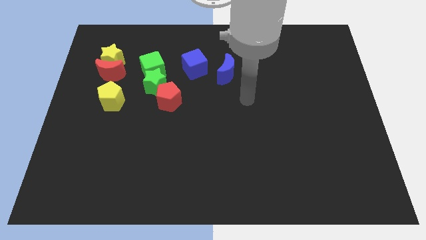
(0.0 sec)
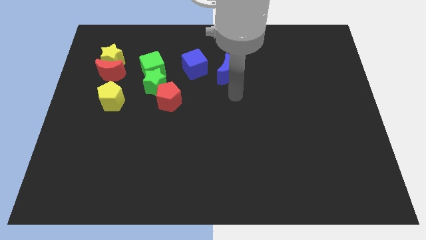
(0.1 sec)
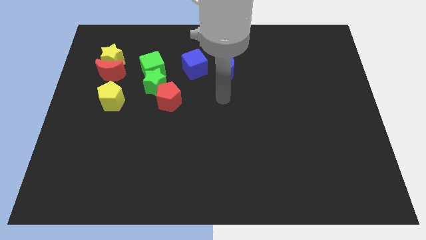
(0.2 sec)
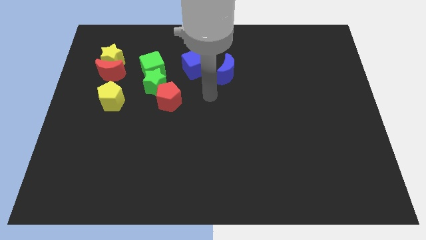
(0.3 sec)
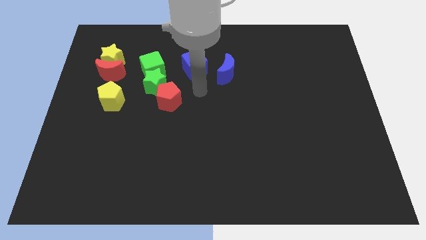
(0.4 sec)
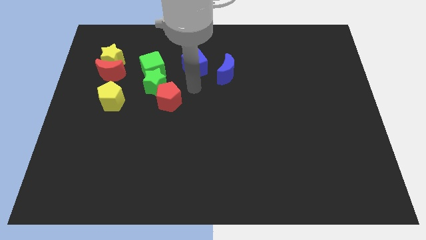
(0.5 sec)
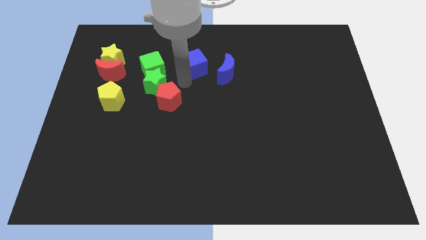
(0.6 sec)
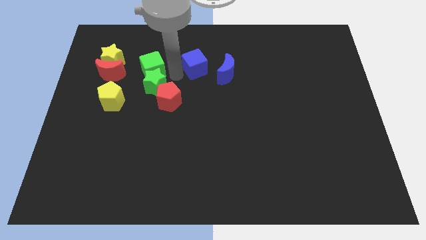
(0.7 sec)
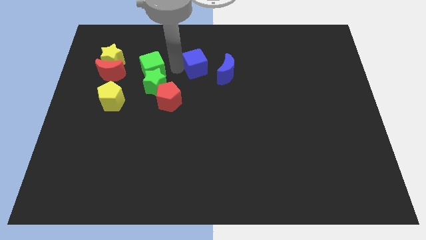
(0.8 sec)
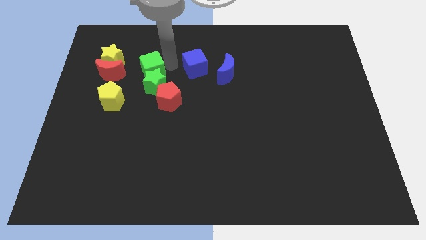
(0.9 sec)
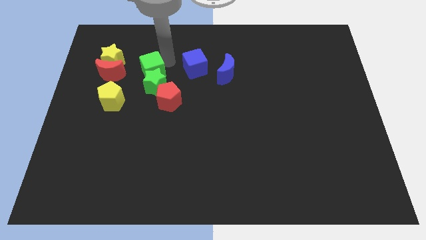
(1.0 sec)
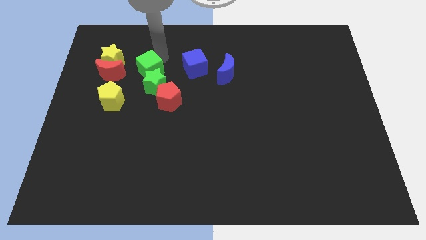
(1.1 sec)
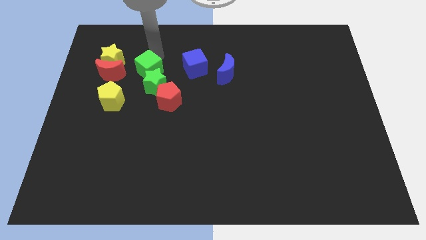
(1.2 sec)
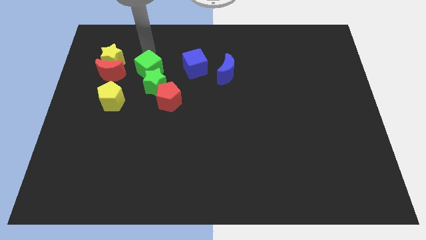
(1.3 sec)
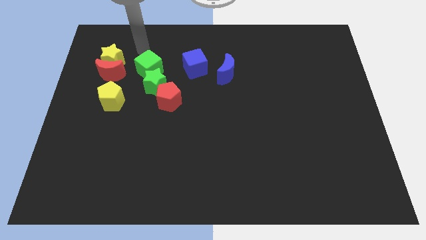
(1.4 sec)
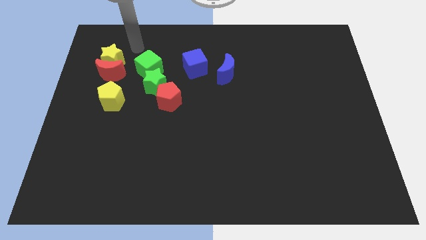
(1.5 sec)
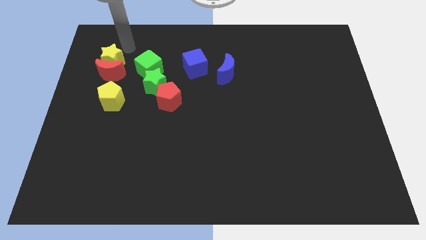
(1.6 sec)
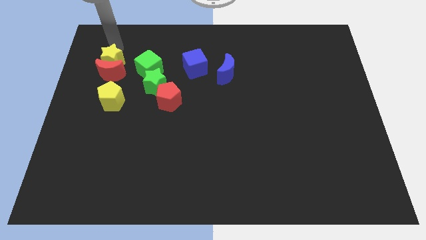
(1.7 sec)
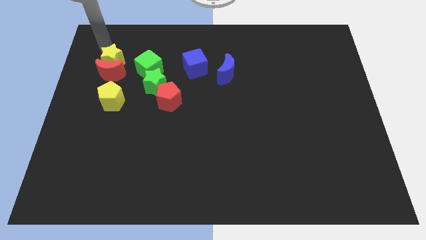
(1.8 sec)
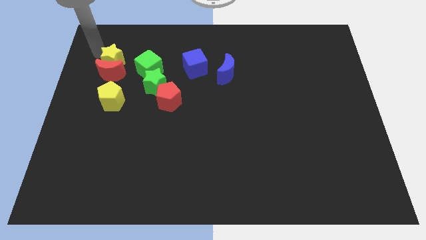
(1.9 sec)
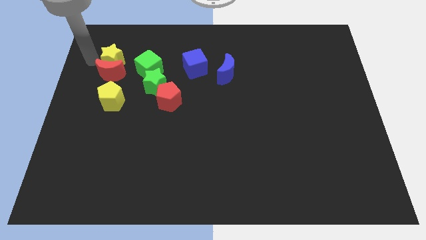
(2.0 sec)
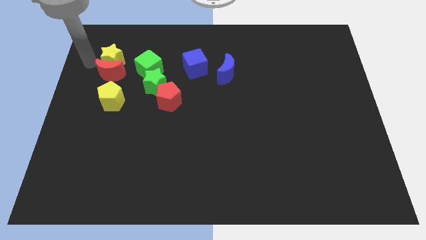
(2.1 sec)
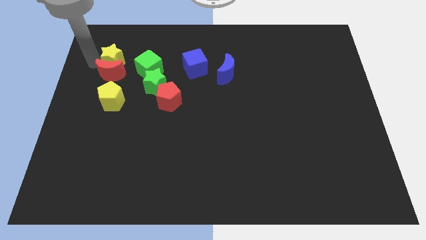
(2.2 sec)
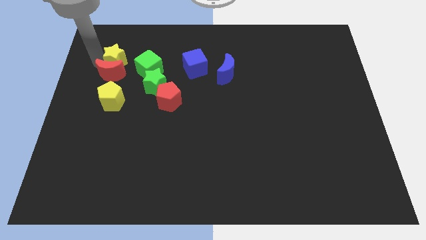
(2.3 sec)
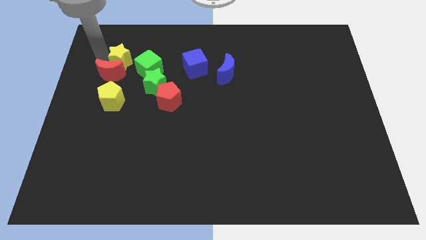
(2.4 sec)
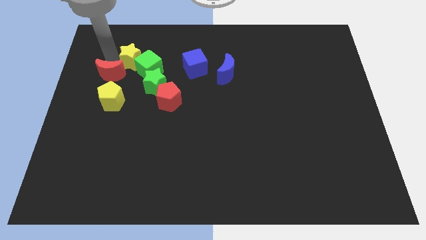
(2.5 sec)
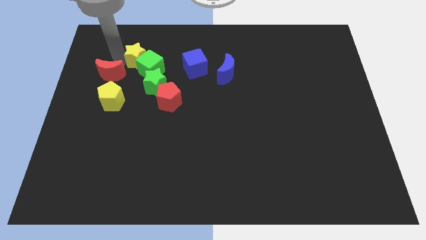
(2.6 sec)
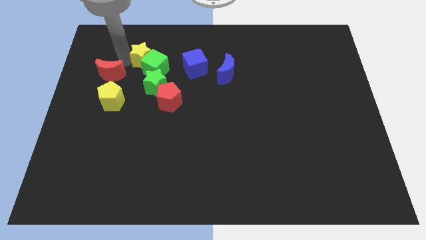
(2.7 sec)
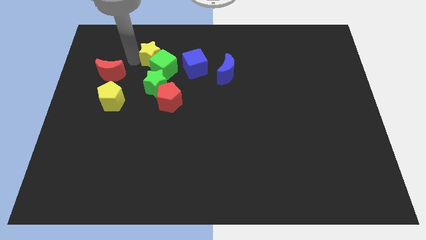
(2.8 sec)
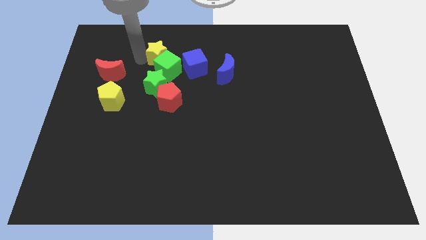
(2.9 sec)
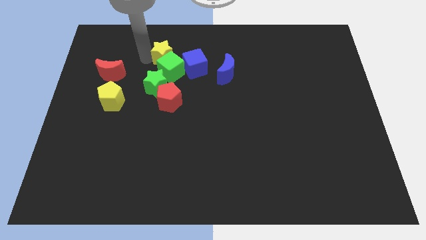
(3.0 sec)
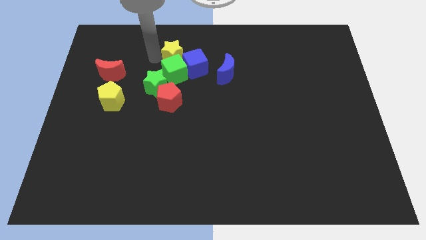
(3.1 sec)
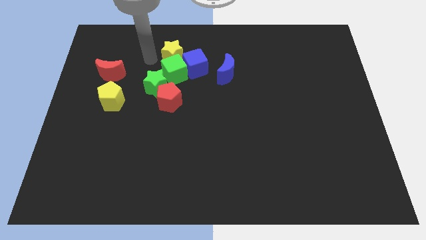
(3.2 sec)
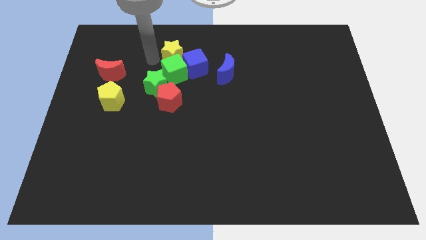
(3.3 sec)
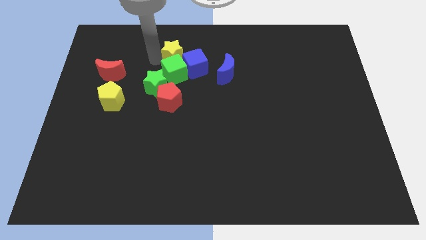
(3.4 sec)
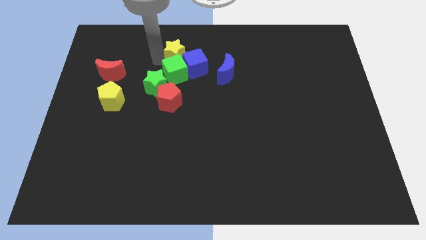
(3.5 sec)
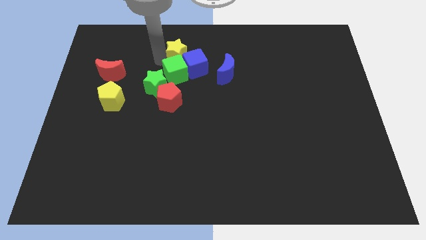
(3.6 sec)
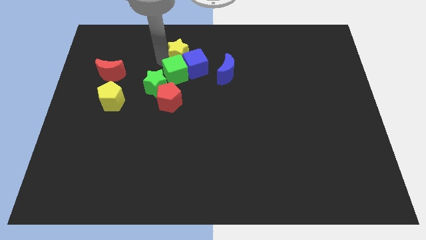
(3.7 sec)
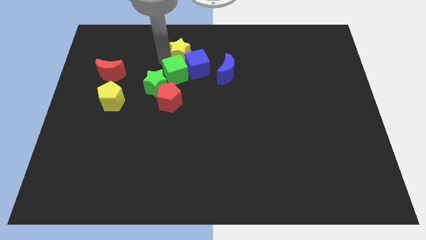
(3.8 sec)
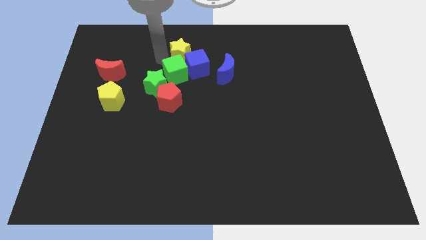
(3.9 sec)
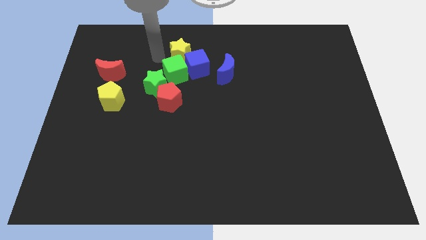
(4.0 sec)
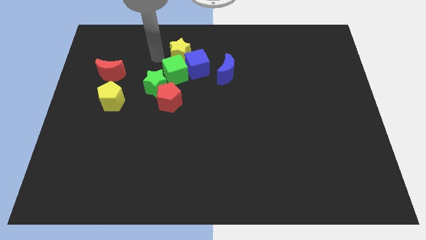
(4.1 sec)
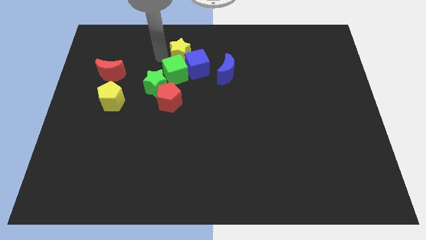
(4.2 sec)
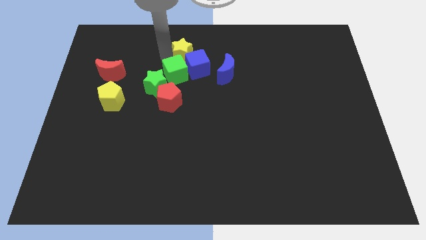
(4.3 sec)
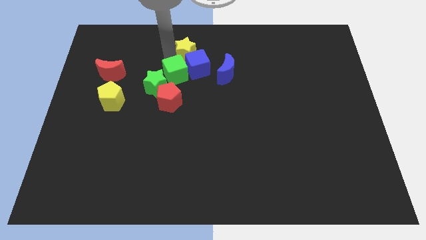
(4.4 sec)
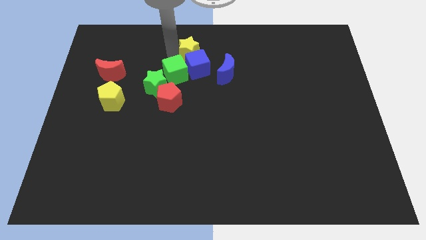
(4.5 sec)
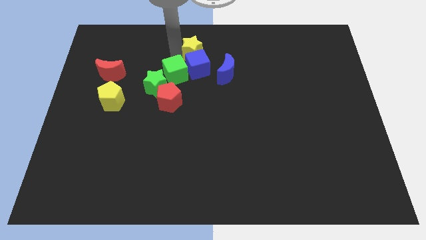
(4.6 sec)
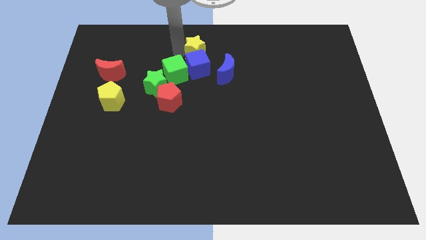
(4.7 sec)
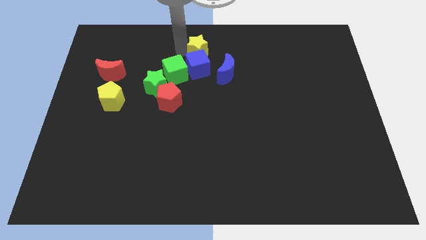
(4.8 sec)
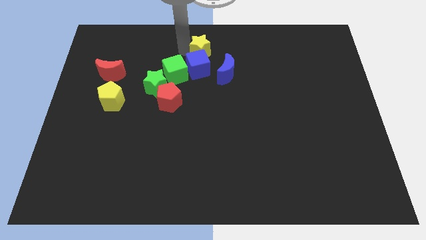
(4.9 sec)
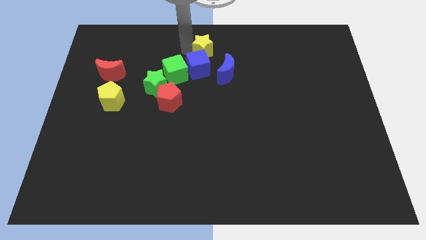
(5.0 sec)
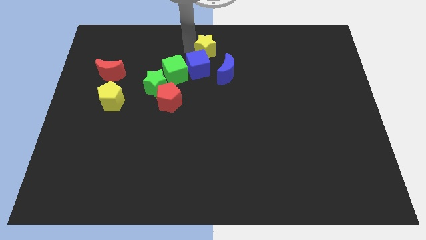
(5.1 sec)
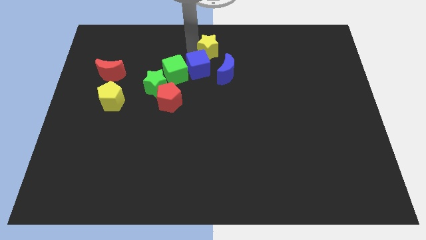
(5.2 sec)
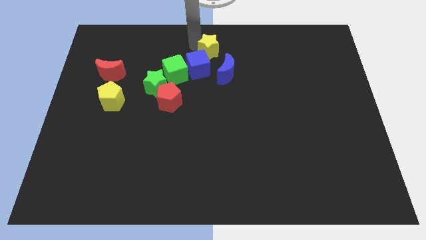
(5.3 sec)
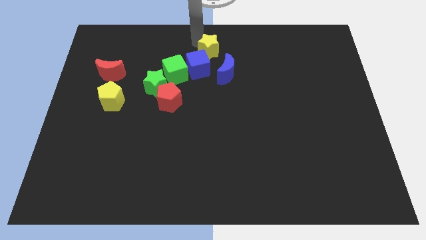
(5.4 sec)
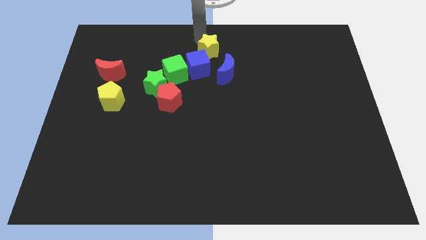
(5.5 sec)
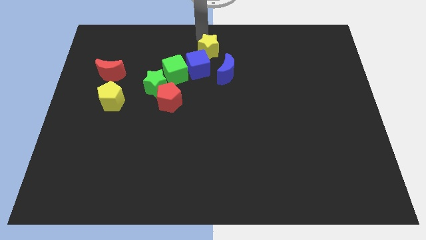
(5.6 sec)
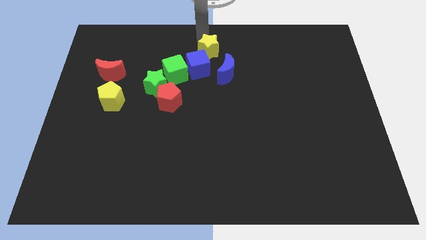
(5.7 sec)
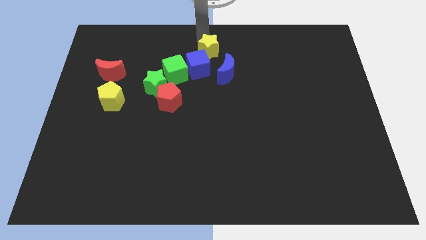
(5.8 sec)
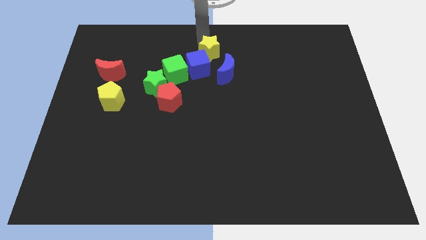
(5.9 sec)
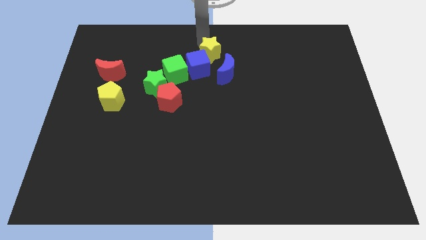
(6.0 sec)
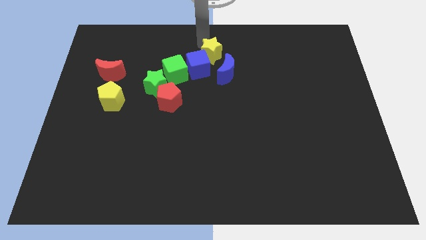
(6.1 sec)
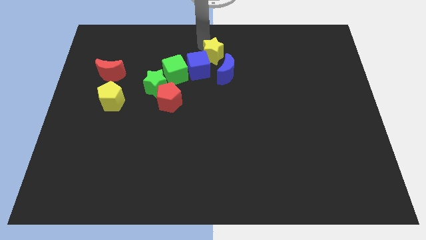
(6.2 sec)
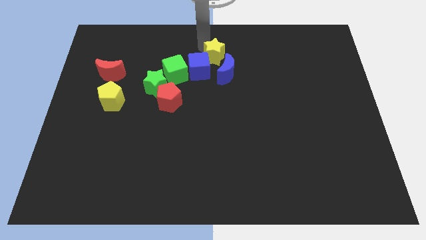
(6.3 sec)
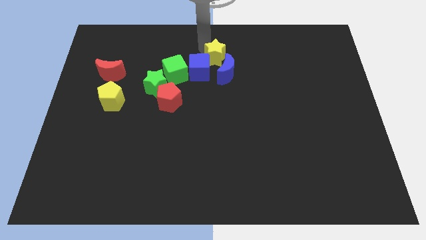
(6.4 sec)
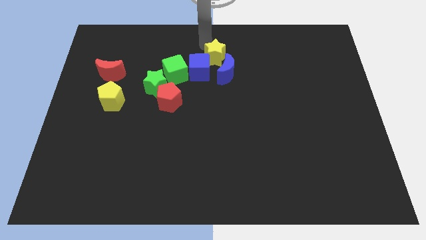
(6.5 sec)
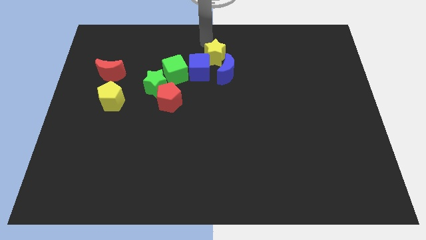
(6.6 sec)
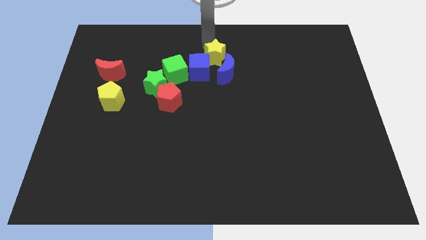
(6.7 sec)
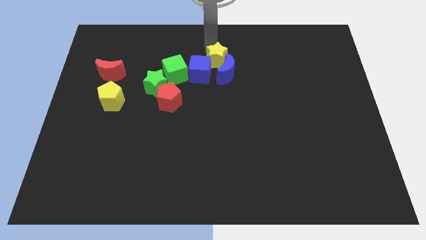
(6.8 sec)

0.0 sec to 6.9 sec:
push the yellow star close to the blue moon
